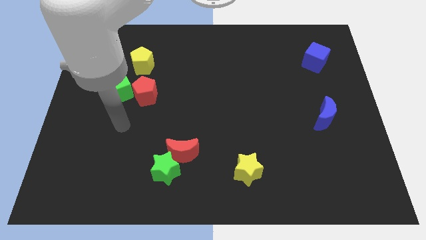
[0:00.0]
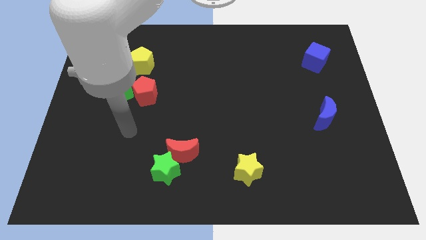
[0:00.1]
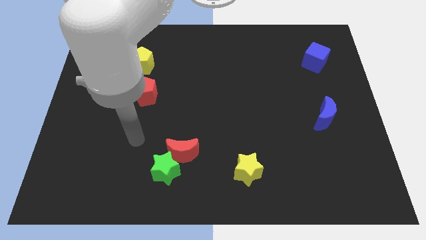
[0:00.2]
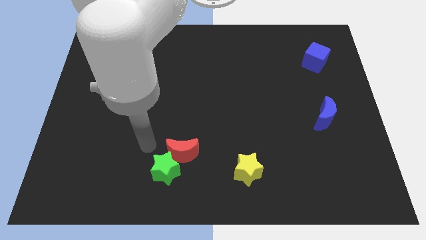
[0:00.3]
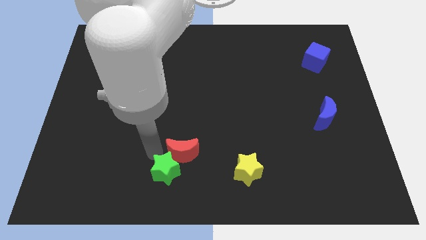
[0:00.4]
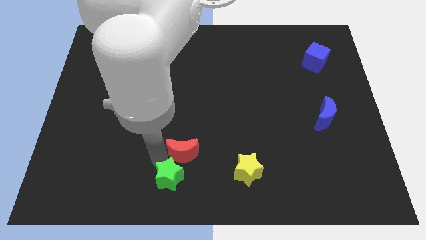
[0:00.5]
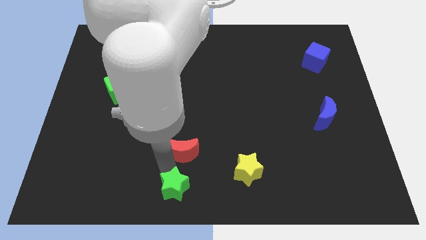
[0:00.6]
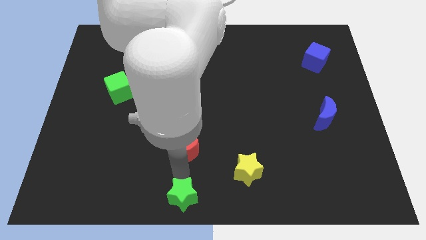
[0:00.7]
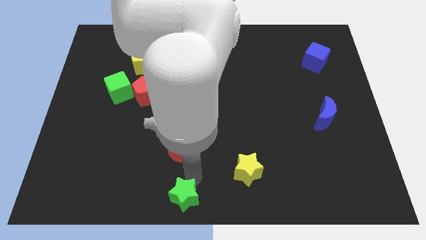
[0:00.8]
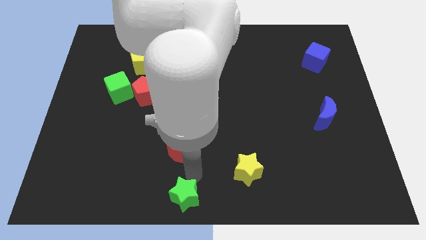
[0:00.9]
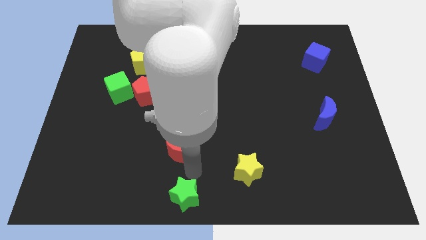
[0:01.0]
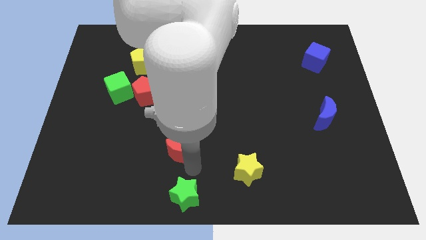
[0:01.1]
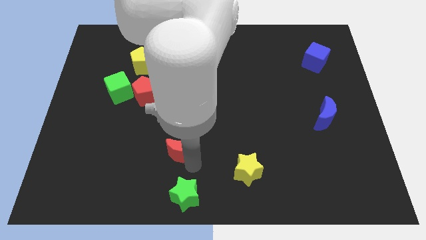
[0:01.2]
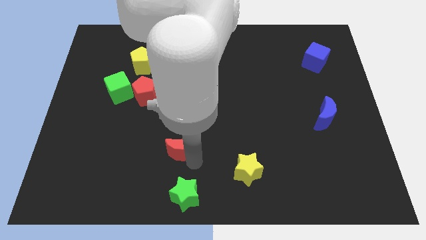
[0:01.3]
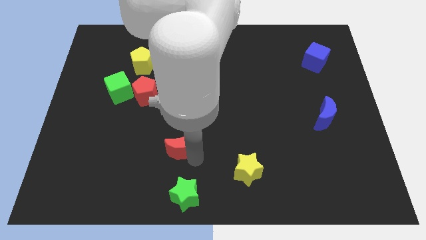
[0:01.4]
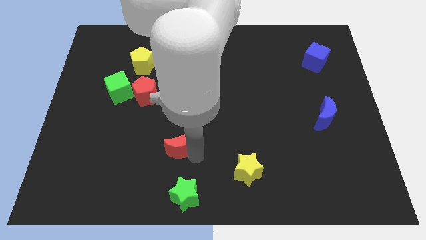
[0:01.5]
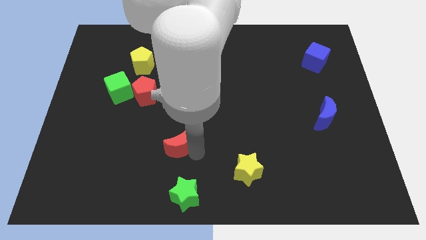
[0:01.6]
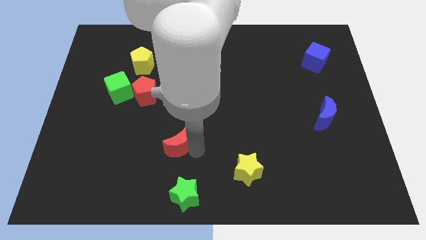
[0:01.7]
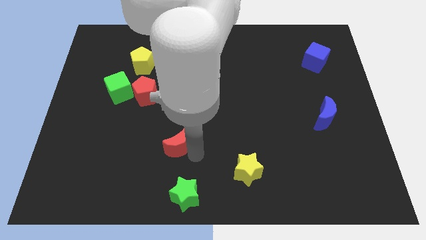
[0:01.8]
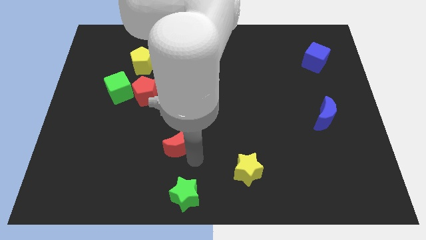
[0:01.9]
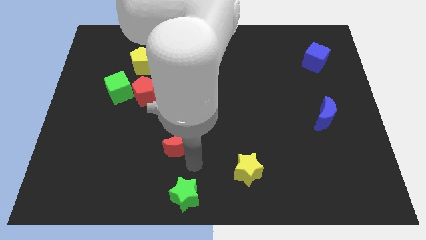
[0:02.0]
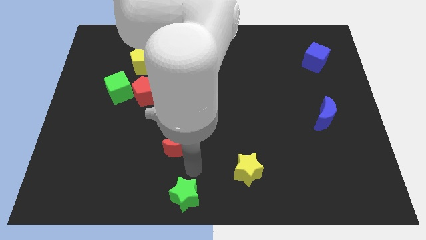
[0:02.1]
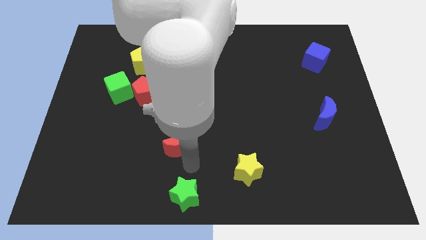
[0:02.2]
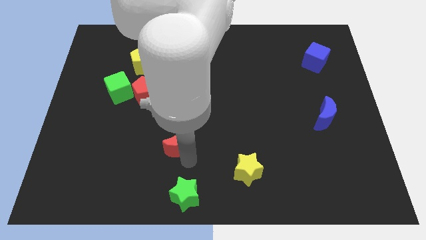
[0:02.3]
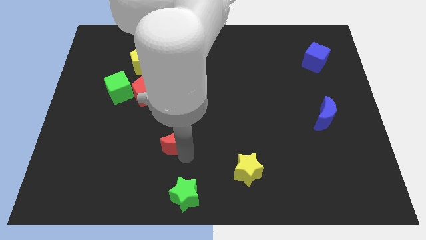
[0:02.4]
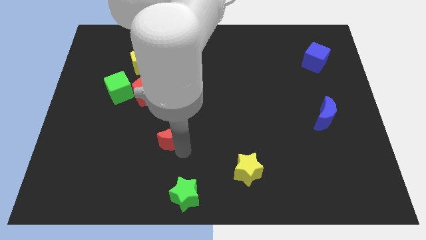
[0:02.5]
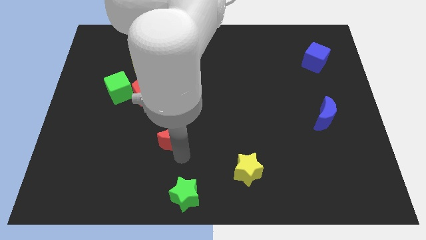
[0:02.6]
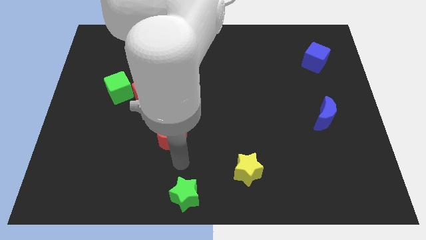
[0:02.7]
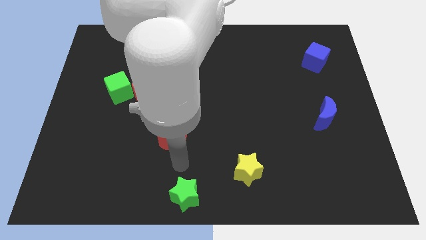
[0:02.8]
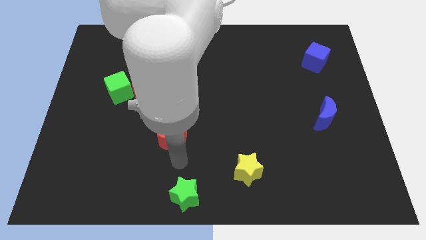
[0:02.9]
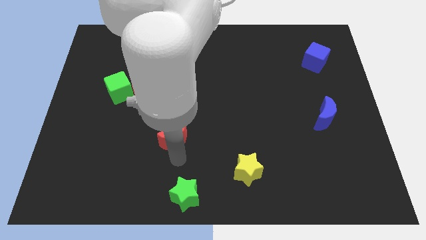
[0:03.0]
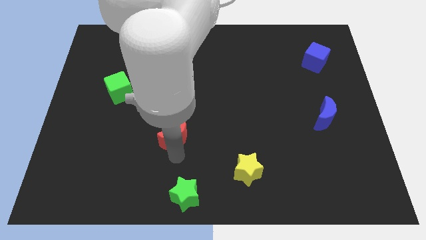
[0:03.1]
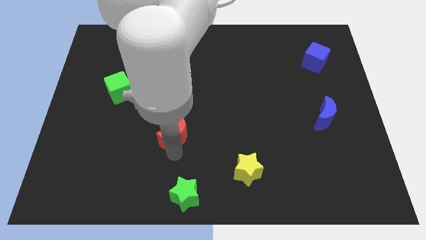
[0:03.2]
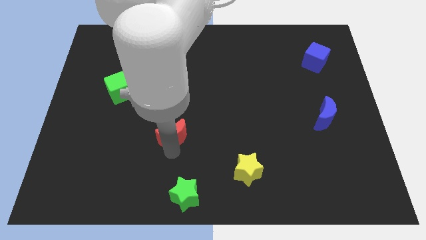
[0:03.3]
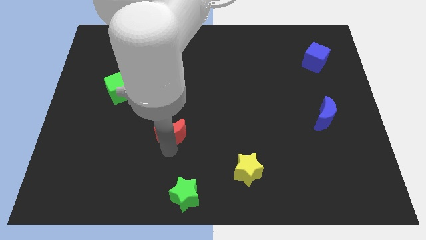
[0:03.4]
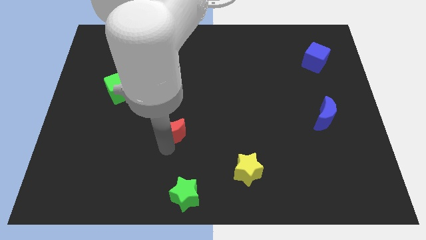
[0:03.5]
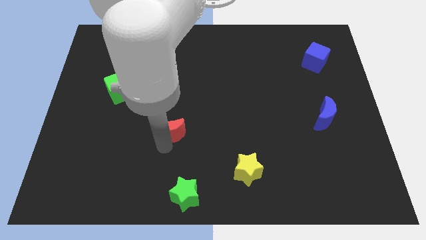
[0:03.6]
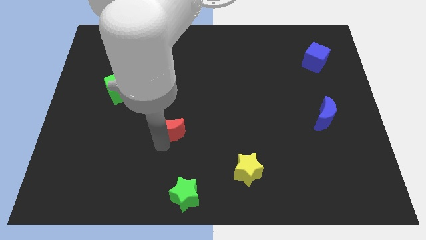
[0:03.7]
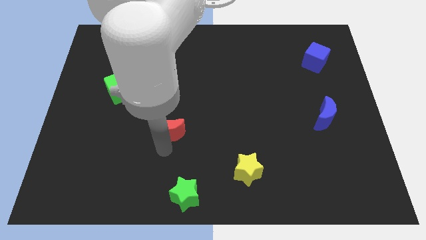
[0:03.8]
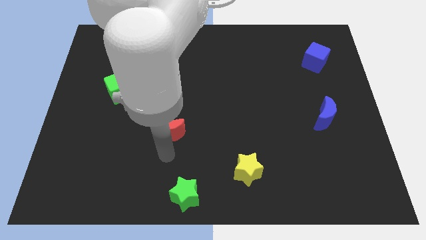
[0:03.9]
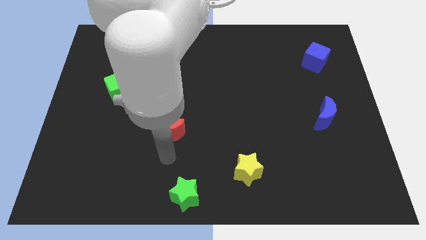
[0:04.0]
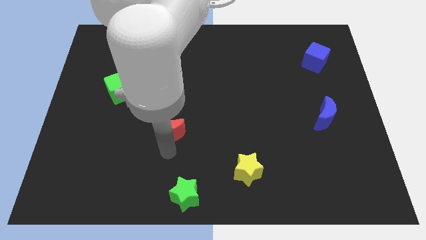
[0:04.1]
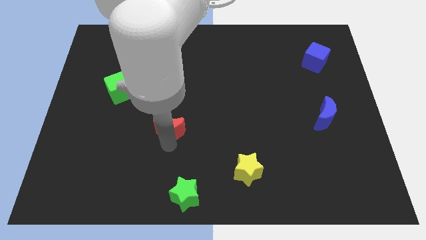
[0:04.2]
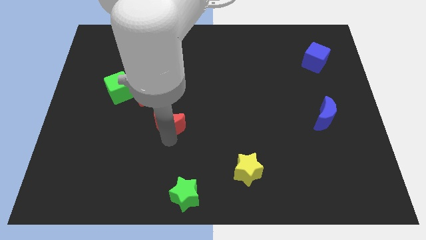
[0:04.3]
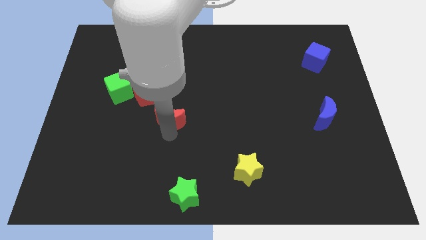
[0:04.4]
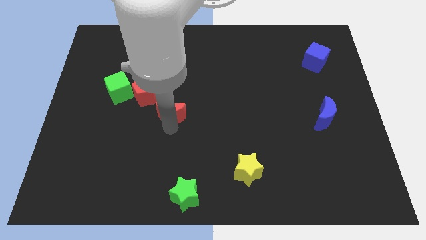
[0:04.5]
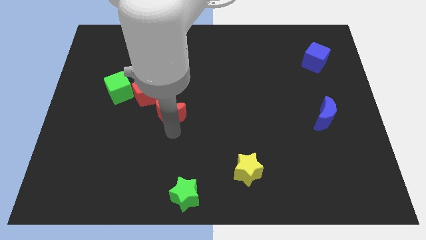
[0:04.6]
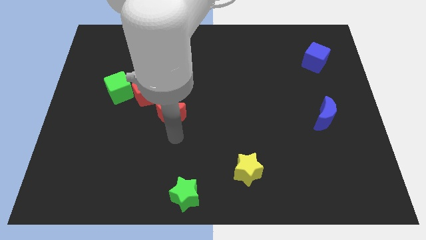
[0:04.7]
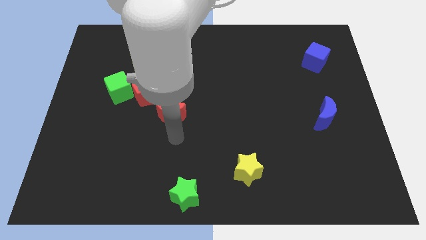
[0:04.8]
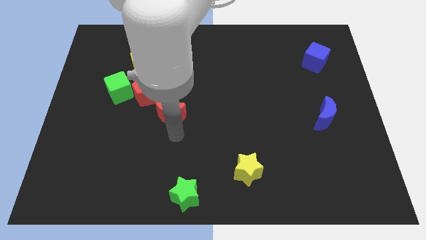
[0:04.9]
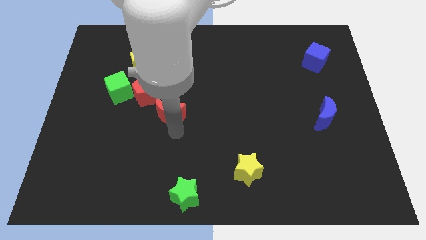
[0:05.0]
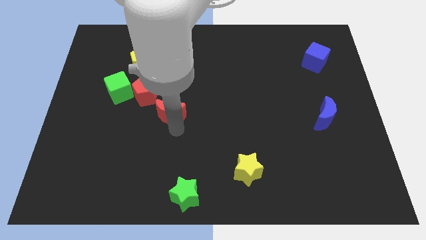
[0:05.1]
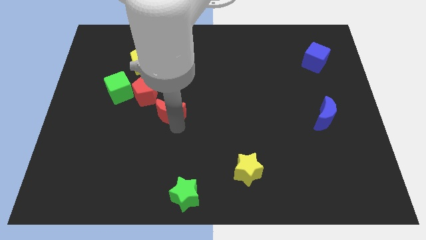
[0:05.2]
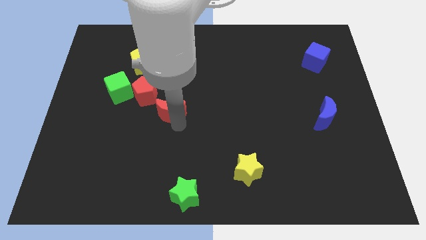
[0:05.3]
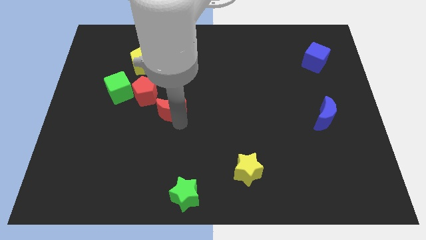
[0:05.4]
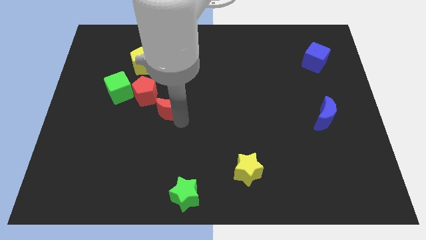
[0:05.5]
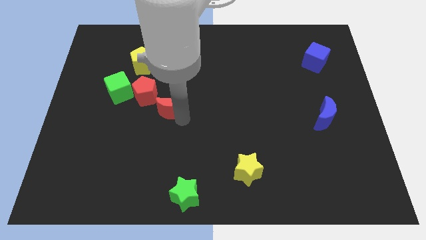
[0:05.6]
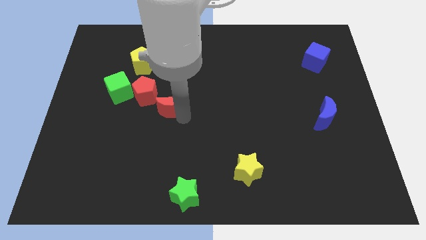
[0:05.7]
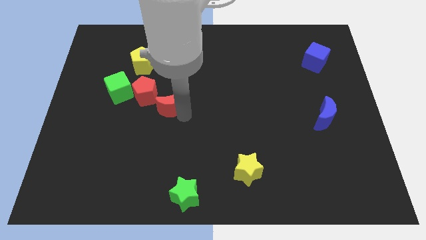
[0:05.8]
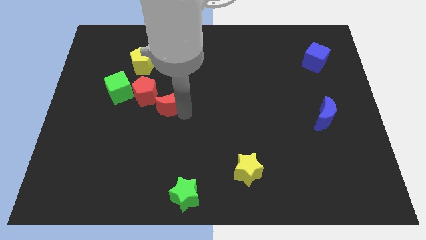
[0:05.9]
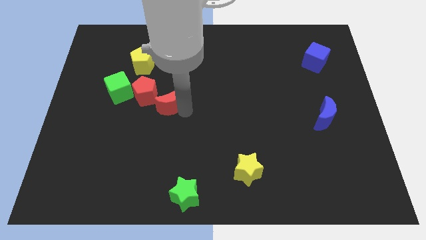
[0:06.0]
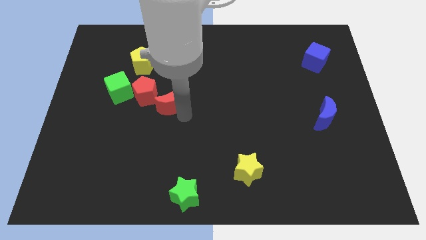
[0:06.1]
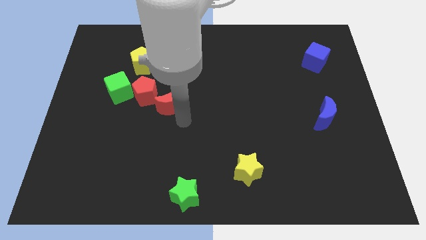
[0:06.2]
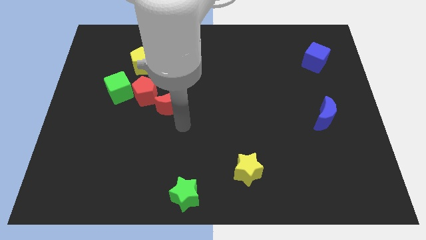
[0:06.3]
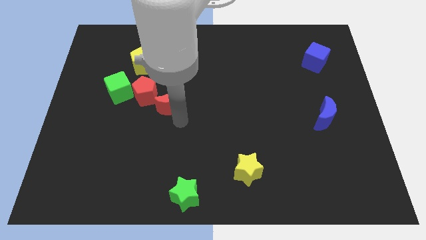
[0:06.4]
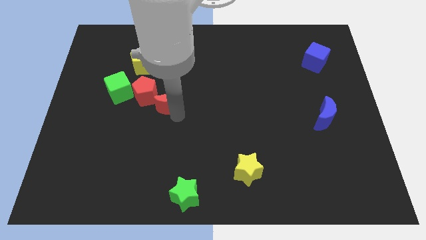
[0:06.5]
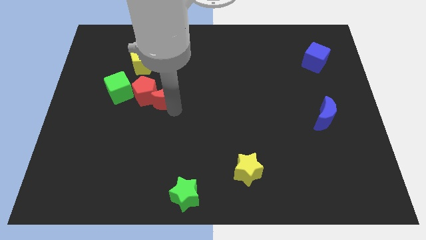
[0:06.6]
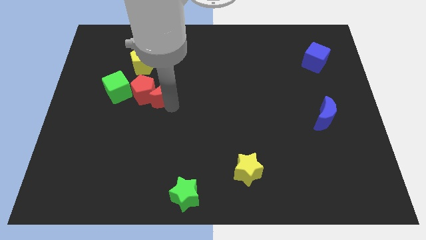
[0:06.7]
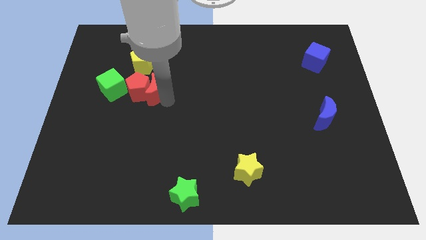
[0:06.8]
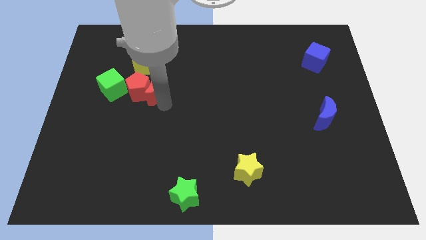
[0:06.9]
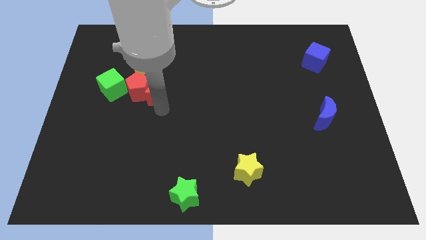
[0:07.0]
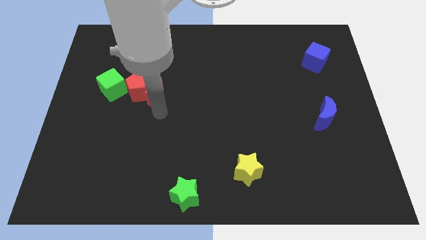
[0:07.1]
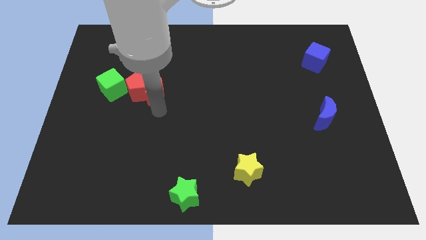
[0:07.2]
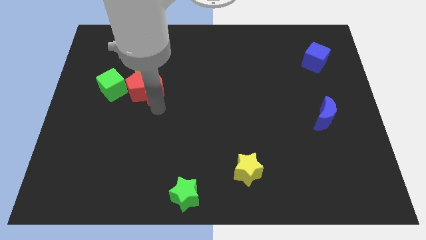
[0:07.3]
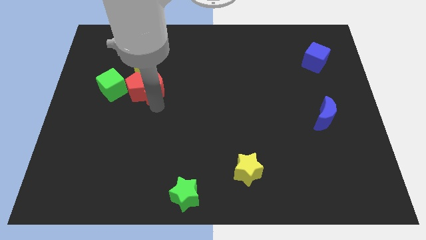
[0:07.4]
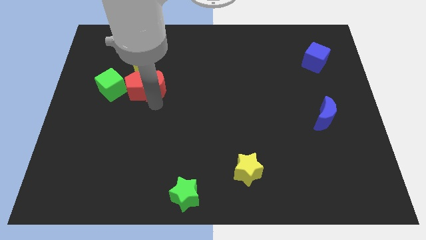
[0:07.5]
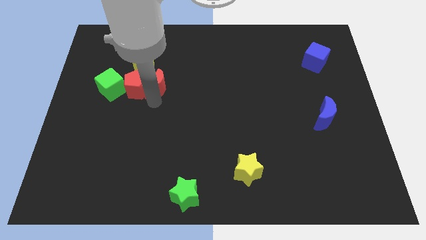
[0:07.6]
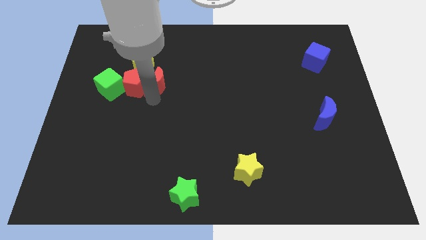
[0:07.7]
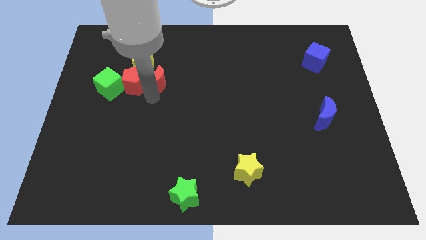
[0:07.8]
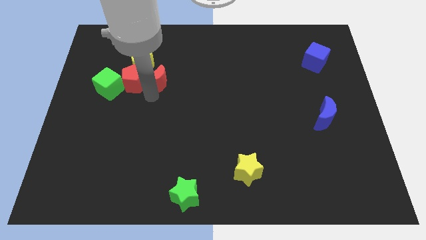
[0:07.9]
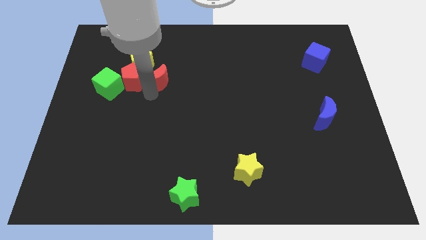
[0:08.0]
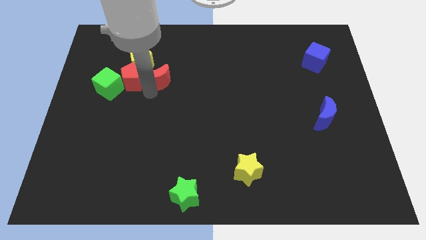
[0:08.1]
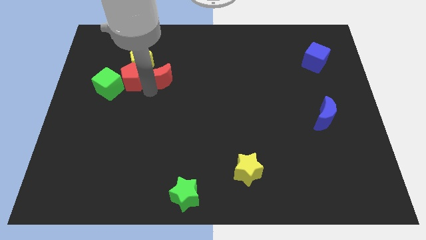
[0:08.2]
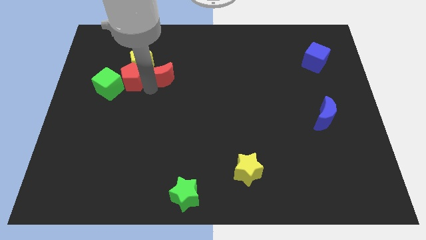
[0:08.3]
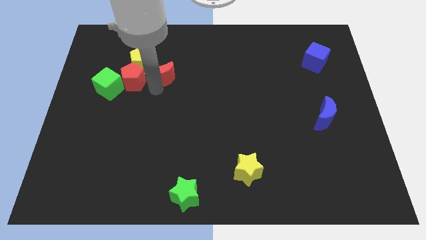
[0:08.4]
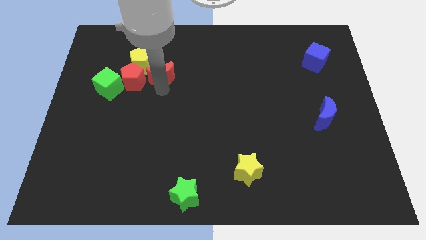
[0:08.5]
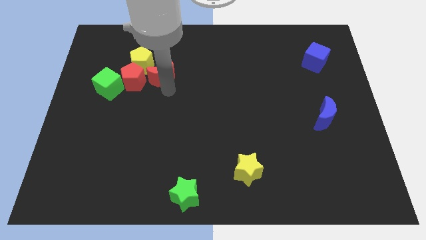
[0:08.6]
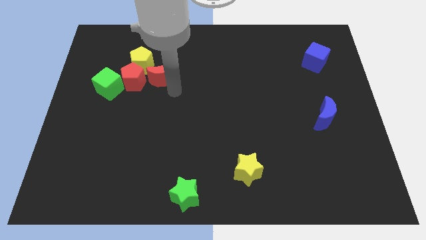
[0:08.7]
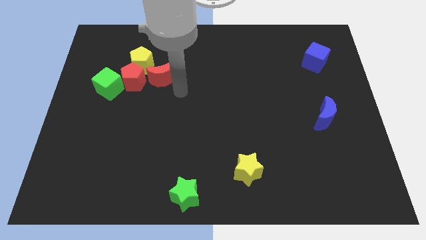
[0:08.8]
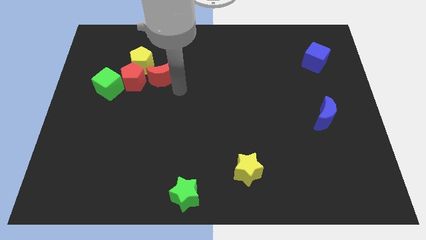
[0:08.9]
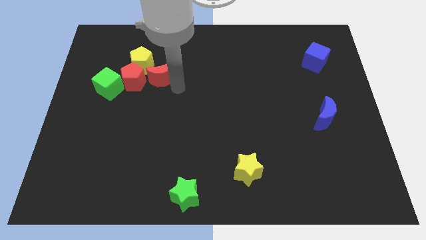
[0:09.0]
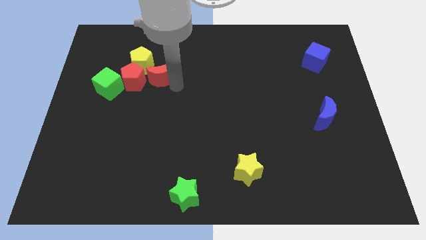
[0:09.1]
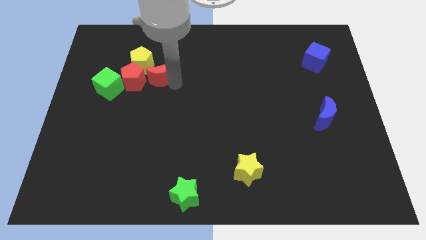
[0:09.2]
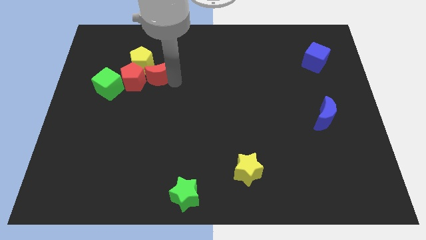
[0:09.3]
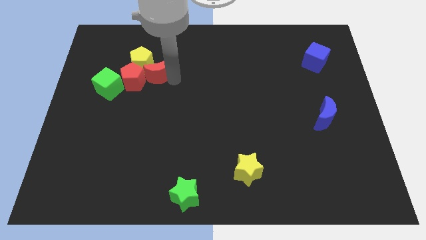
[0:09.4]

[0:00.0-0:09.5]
push the red moon towards the yellow pentagon
